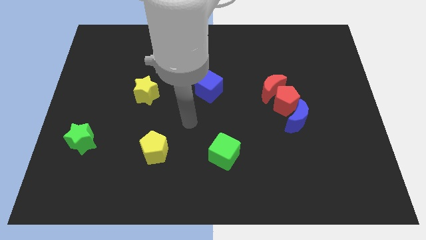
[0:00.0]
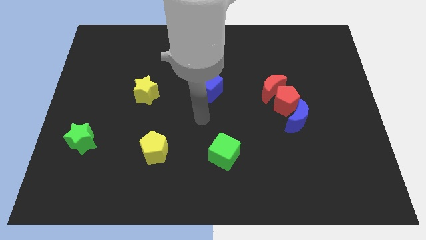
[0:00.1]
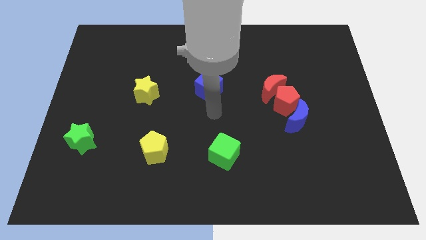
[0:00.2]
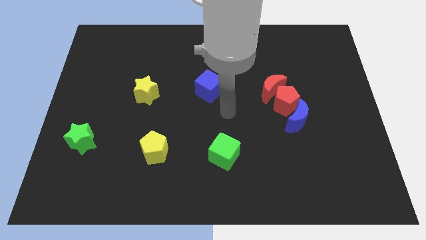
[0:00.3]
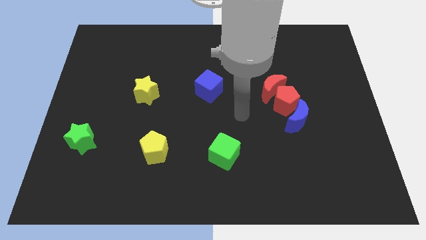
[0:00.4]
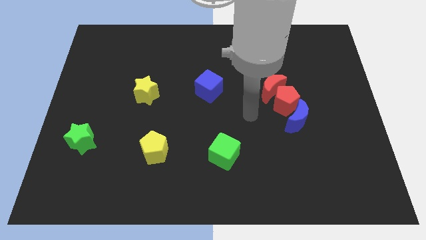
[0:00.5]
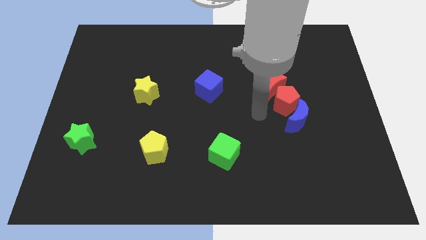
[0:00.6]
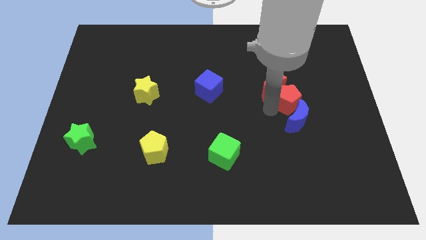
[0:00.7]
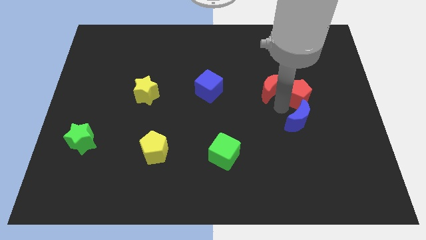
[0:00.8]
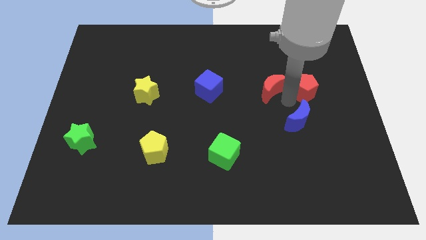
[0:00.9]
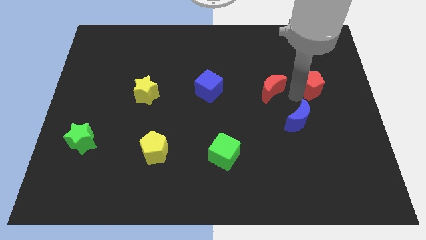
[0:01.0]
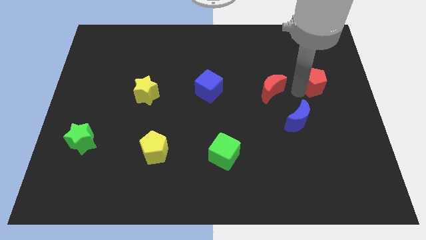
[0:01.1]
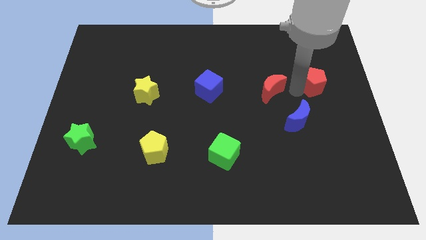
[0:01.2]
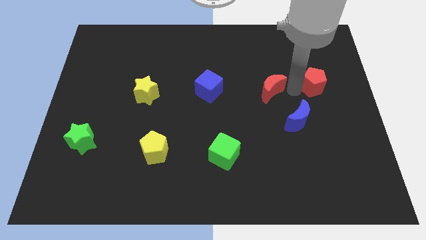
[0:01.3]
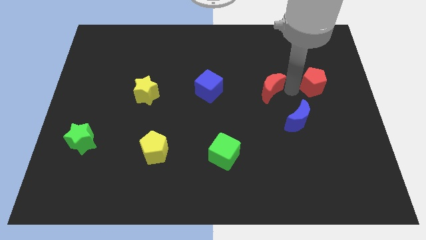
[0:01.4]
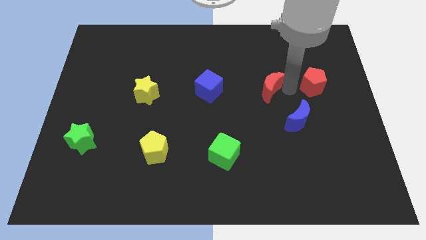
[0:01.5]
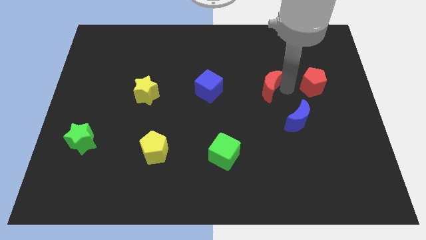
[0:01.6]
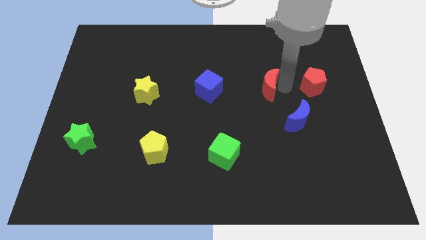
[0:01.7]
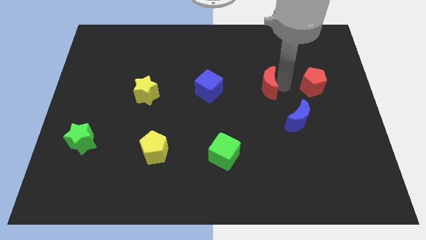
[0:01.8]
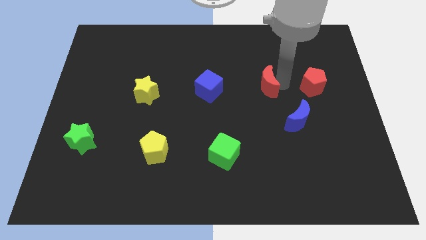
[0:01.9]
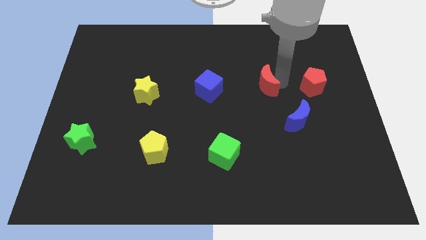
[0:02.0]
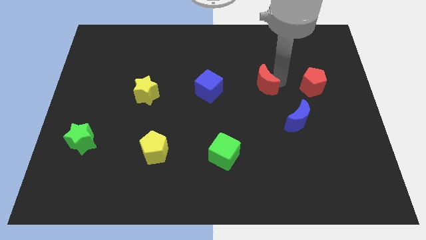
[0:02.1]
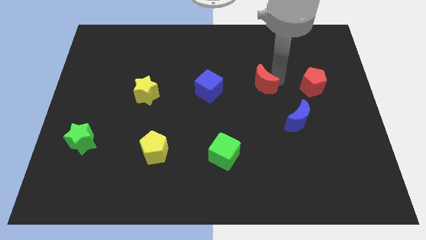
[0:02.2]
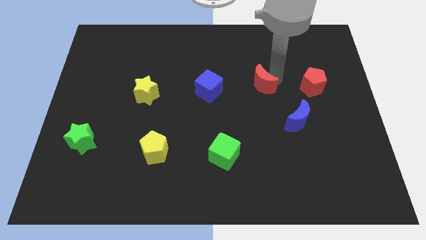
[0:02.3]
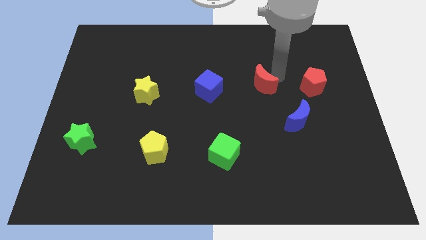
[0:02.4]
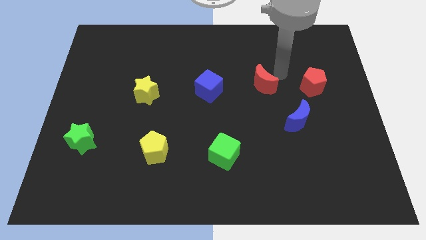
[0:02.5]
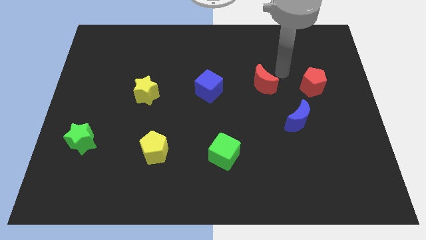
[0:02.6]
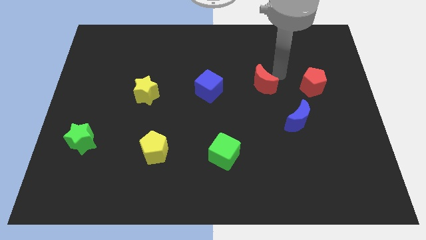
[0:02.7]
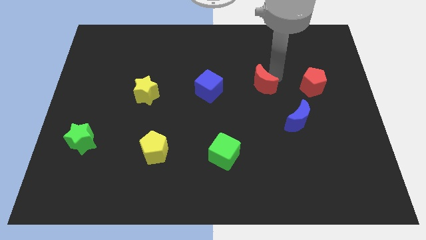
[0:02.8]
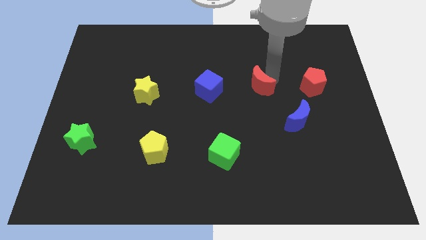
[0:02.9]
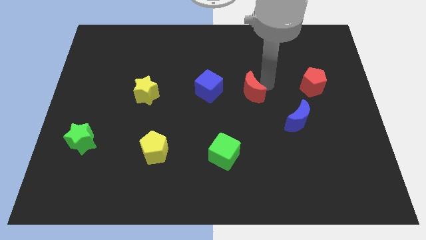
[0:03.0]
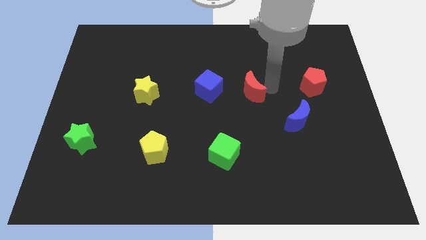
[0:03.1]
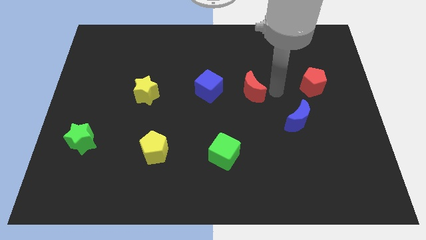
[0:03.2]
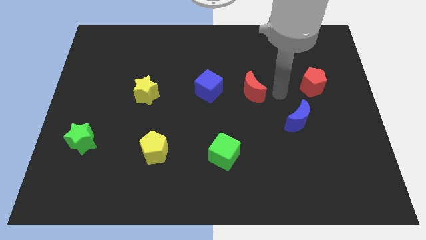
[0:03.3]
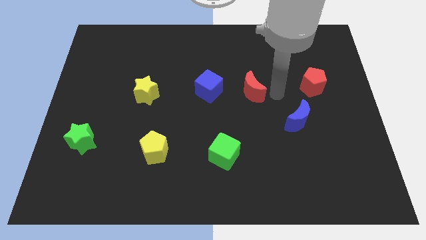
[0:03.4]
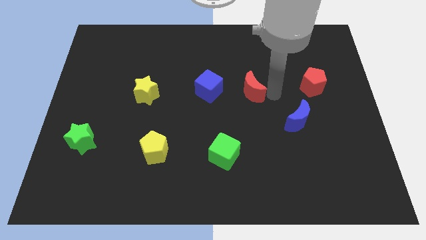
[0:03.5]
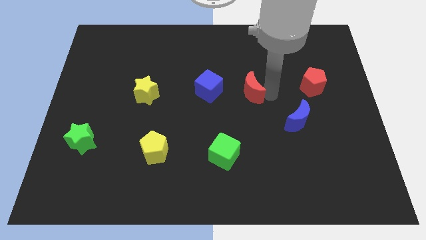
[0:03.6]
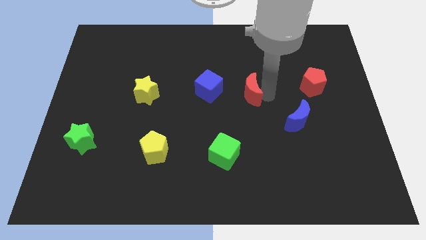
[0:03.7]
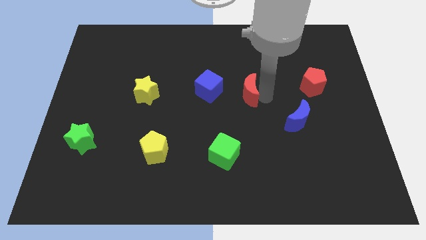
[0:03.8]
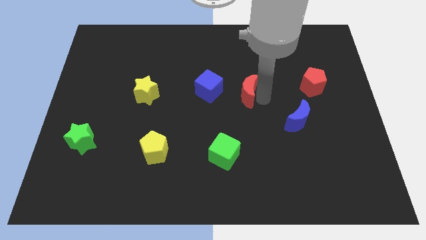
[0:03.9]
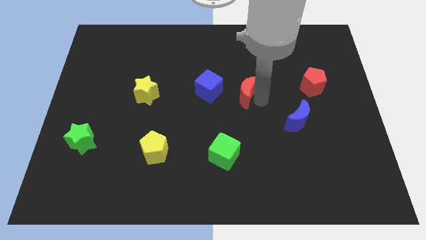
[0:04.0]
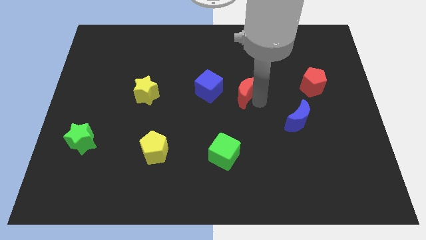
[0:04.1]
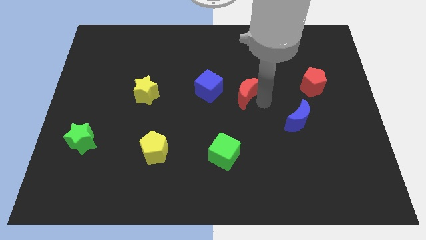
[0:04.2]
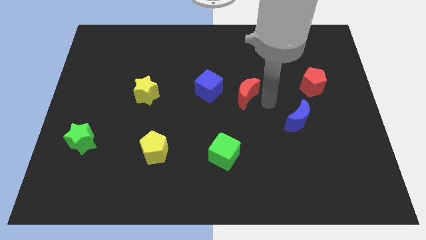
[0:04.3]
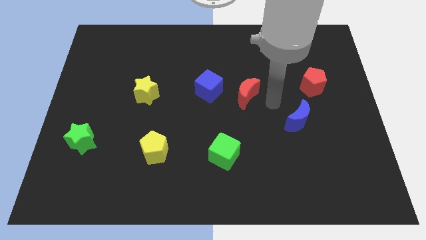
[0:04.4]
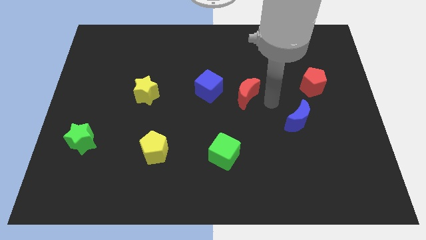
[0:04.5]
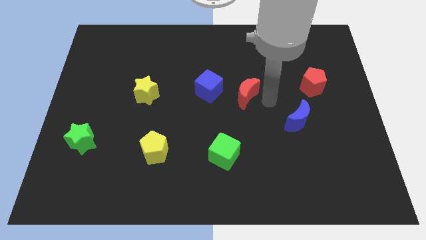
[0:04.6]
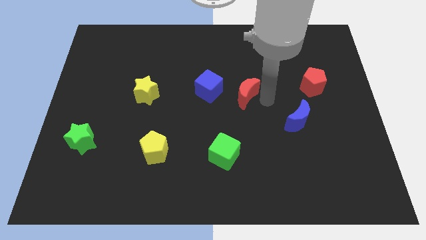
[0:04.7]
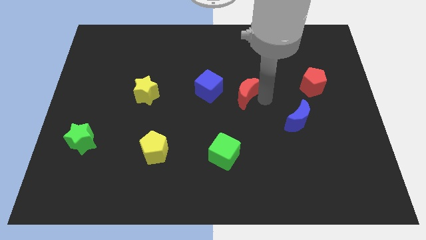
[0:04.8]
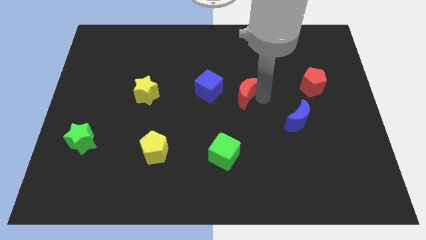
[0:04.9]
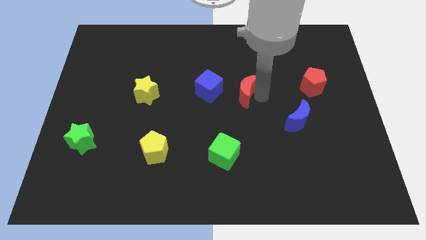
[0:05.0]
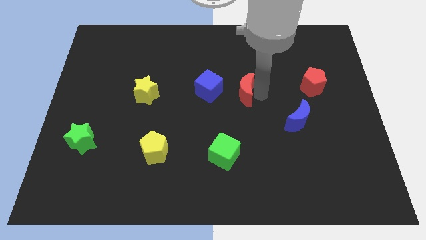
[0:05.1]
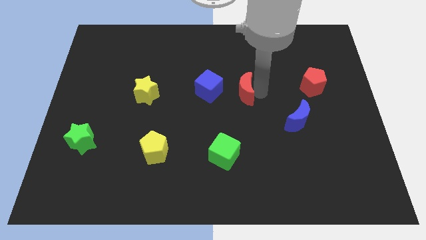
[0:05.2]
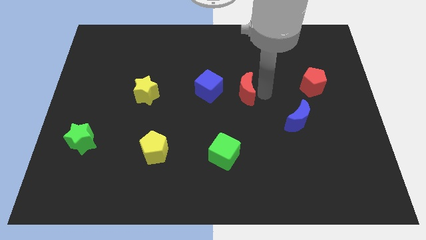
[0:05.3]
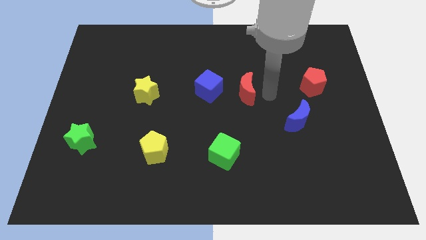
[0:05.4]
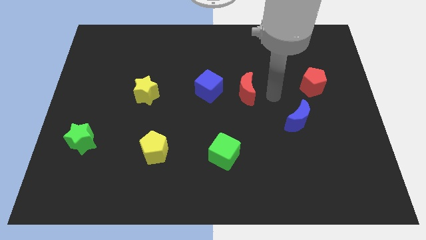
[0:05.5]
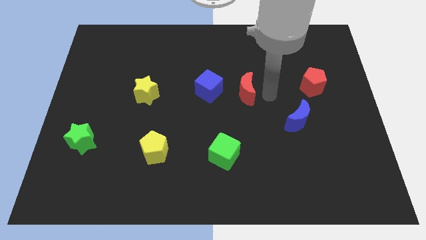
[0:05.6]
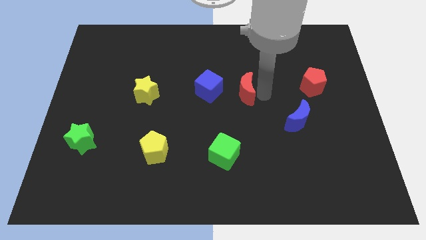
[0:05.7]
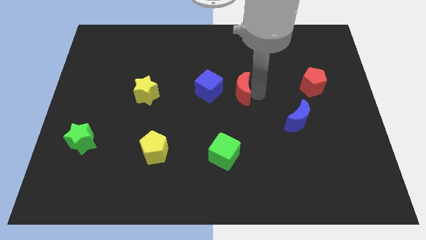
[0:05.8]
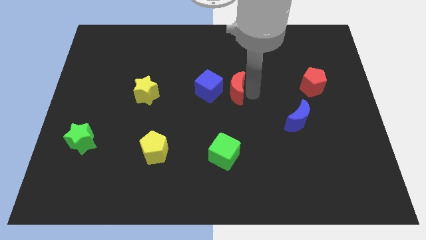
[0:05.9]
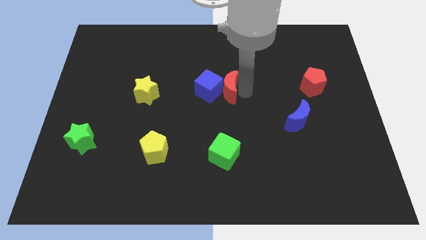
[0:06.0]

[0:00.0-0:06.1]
slide the red moon to the blue cube

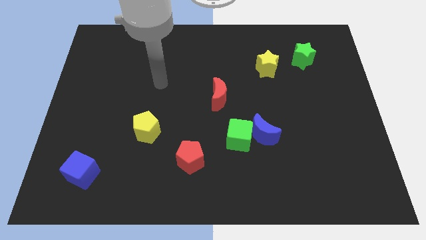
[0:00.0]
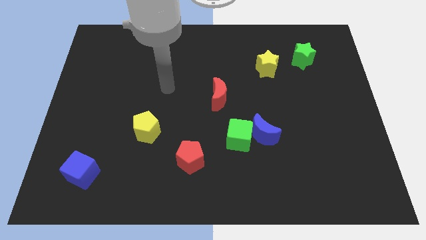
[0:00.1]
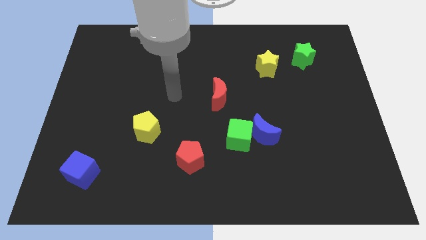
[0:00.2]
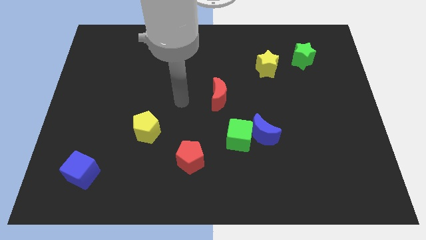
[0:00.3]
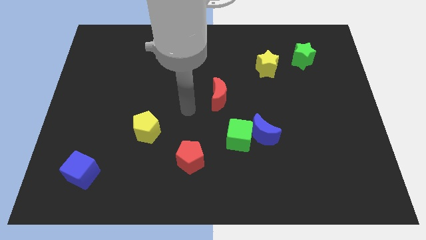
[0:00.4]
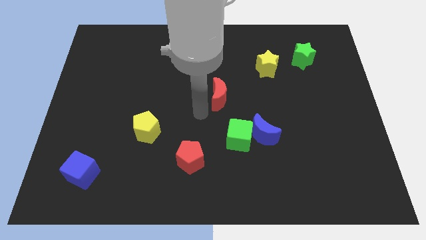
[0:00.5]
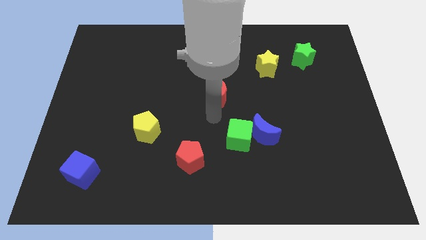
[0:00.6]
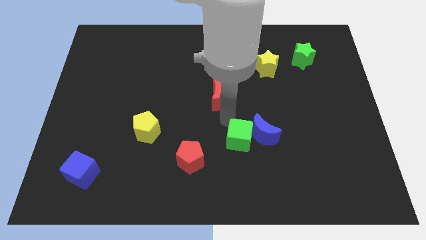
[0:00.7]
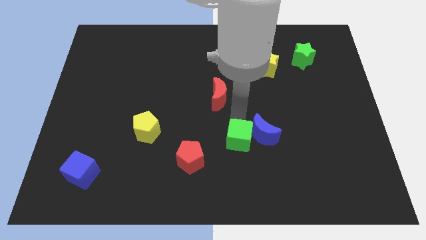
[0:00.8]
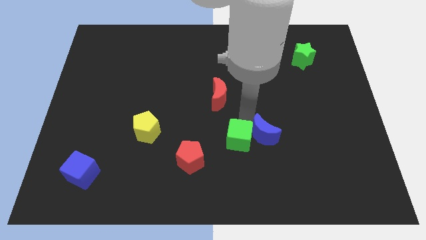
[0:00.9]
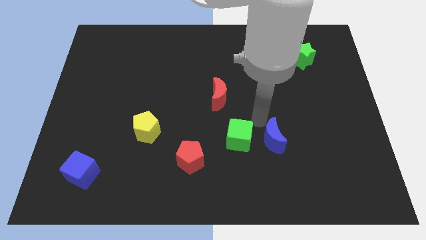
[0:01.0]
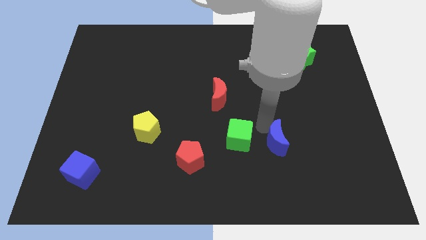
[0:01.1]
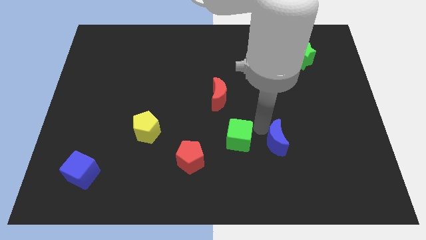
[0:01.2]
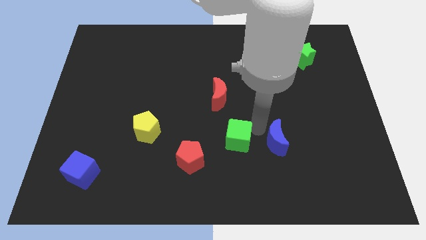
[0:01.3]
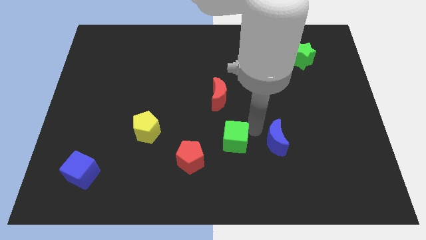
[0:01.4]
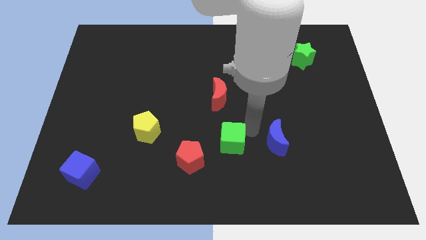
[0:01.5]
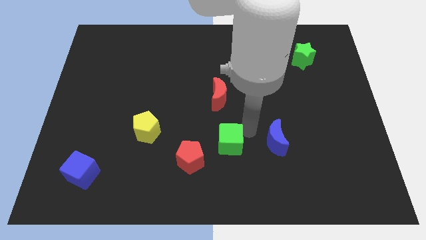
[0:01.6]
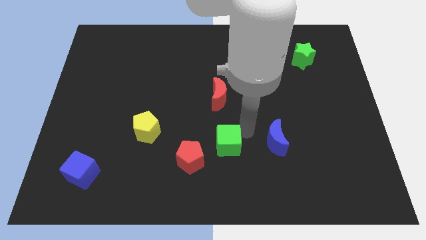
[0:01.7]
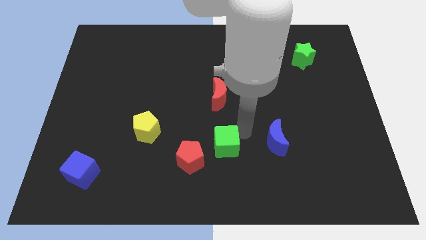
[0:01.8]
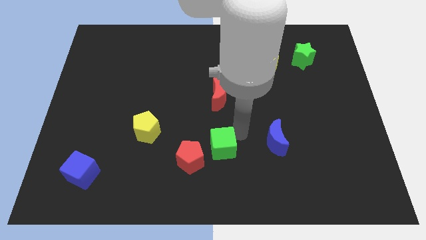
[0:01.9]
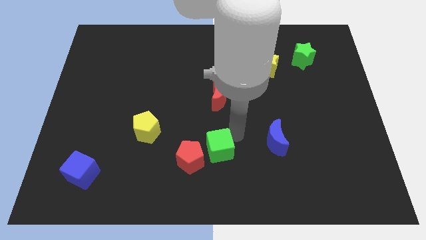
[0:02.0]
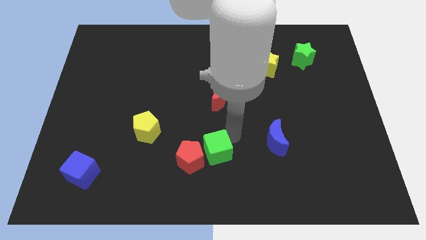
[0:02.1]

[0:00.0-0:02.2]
put the green cube close to the red pentagon
